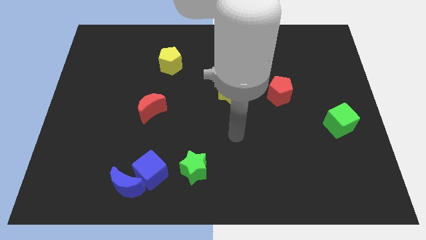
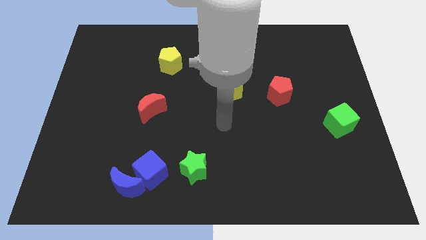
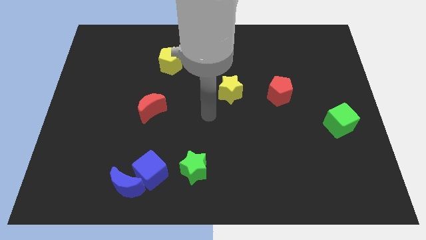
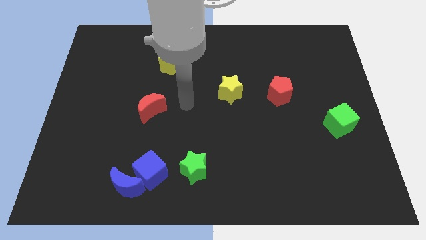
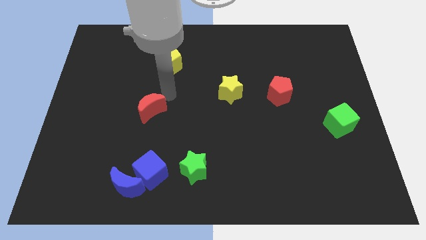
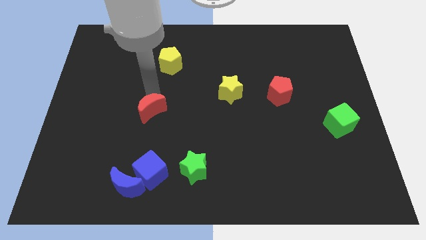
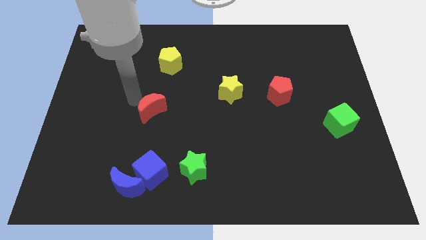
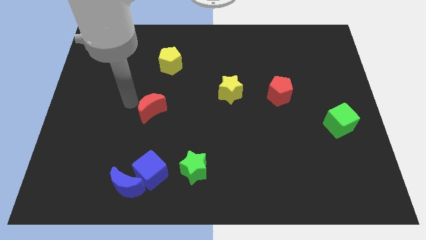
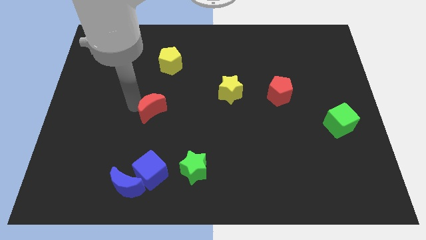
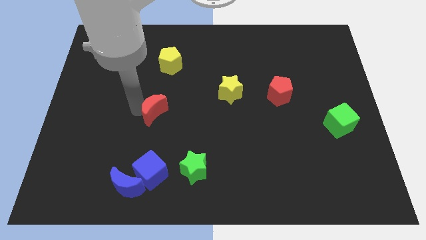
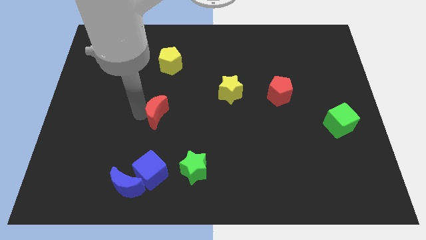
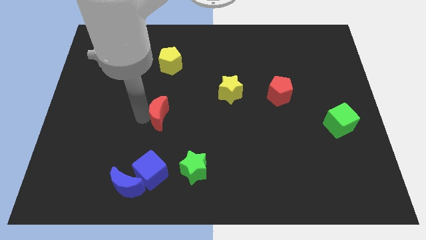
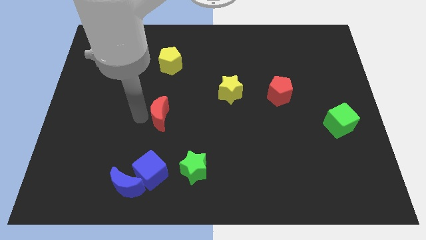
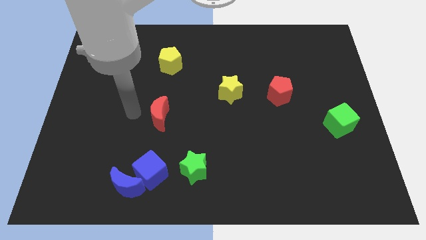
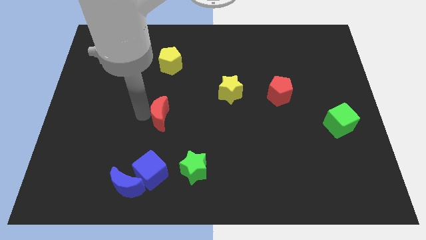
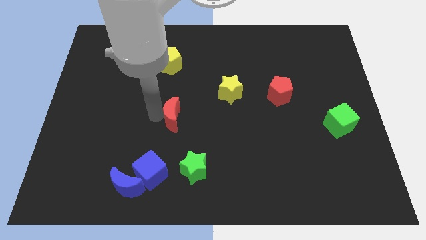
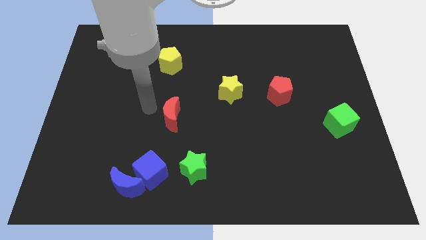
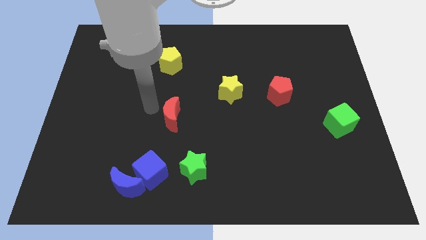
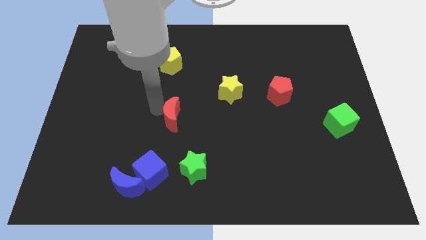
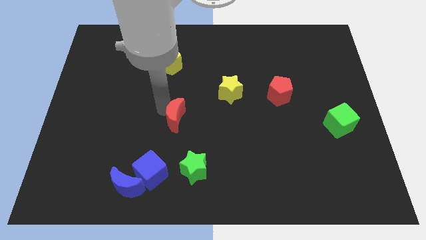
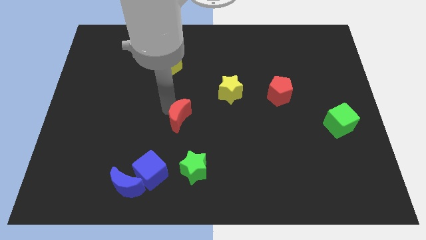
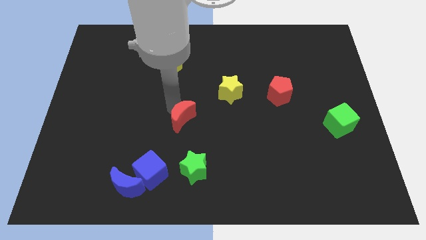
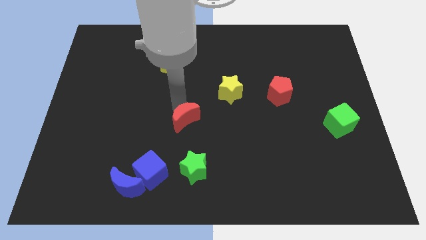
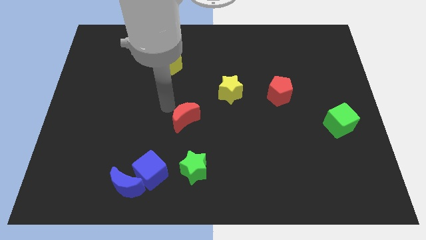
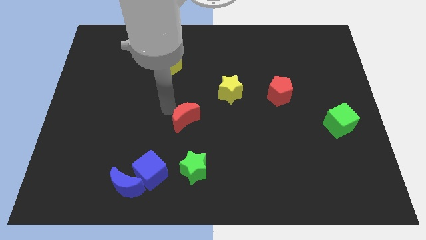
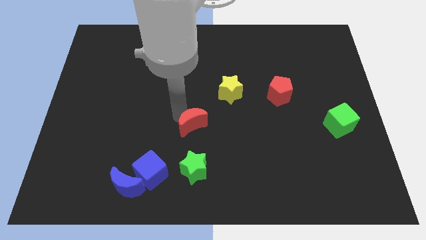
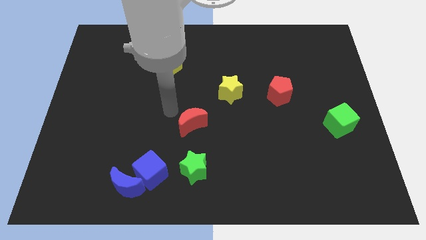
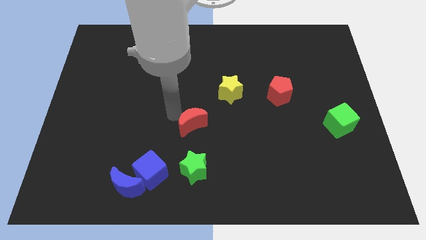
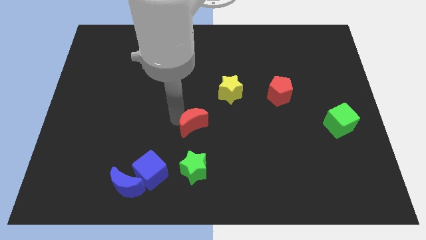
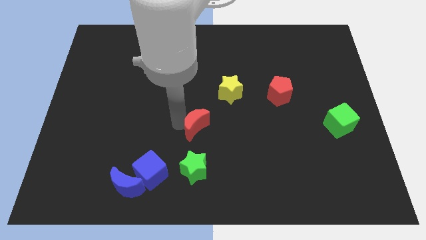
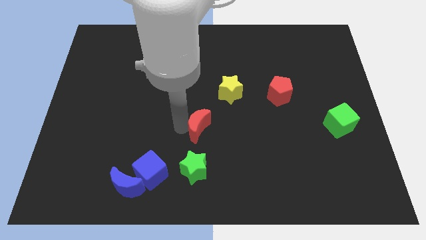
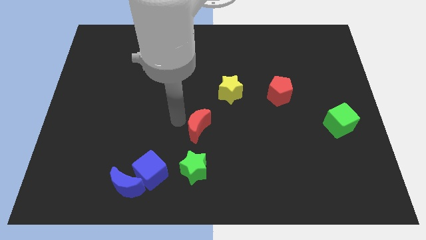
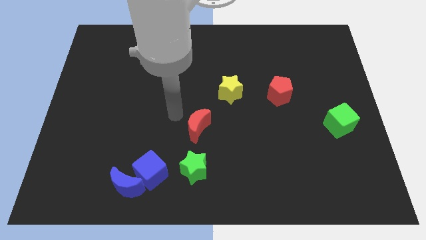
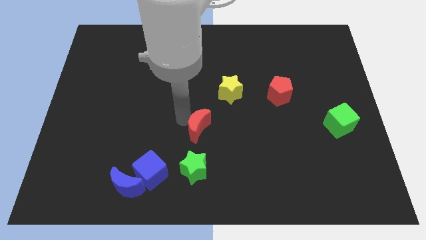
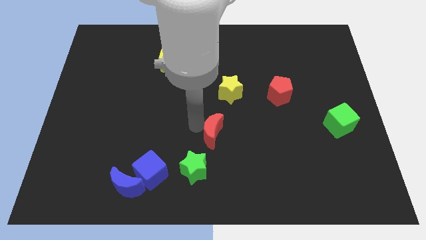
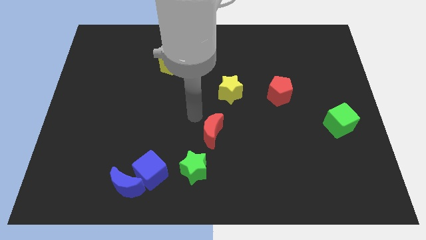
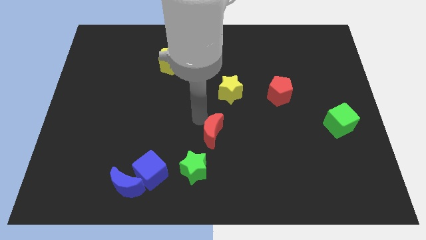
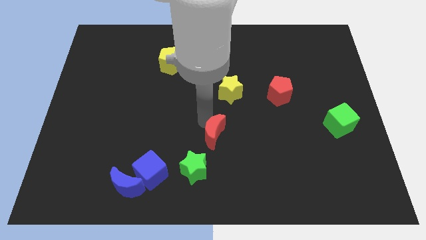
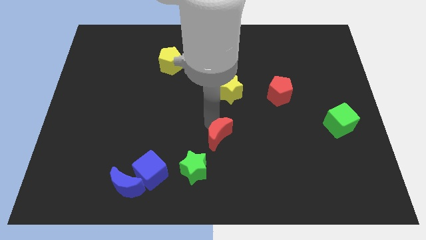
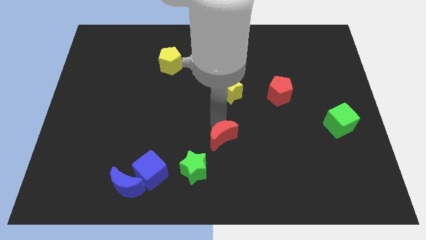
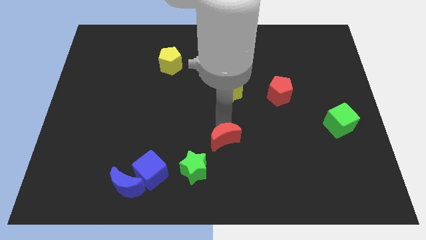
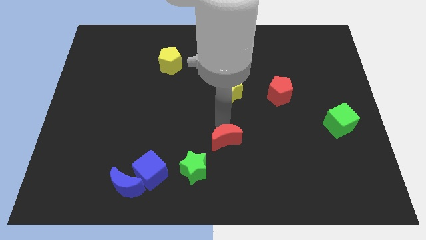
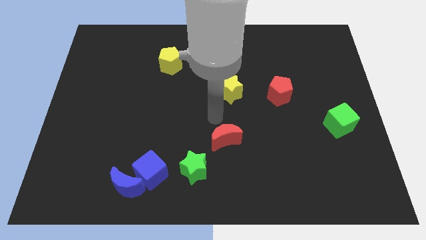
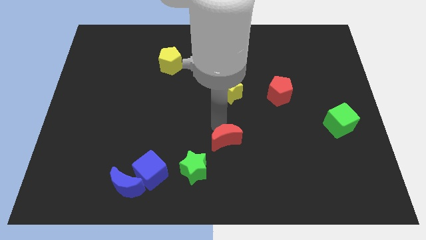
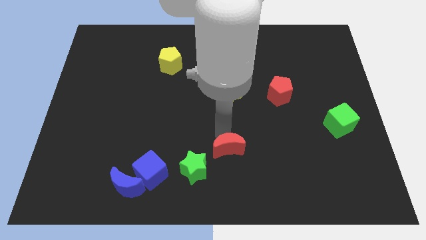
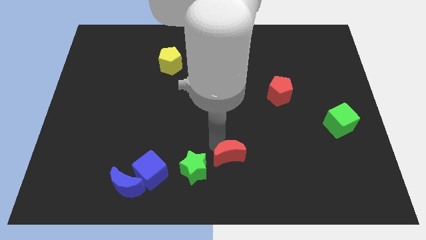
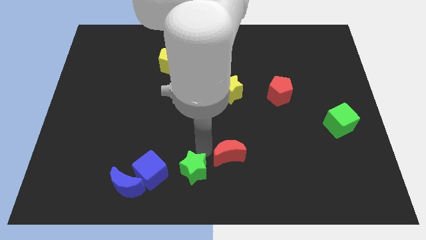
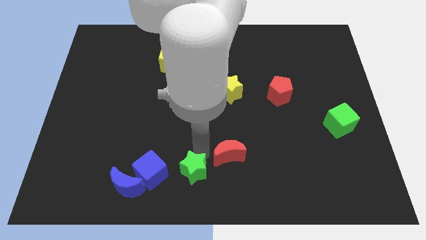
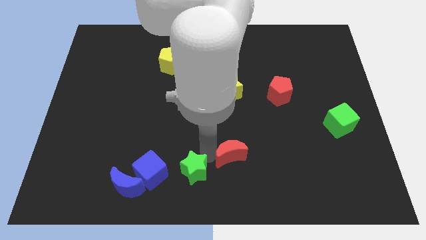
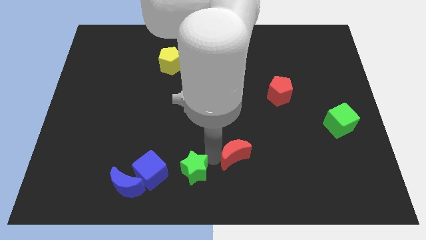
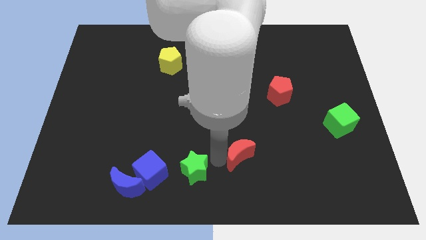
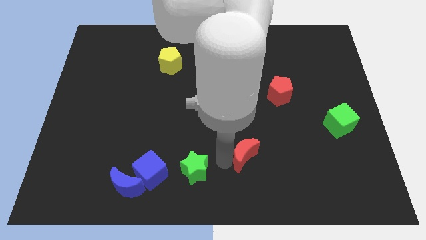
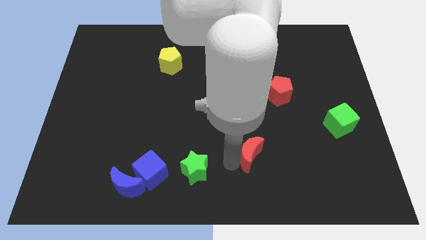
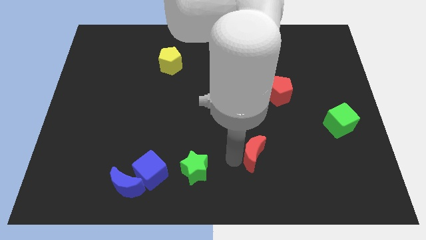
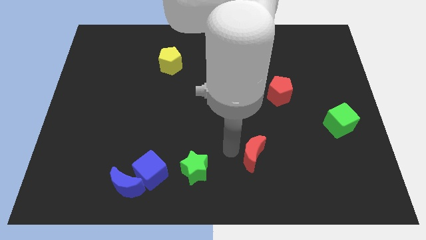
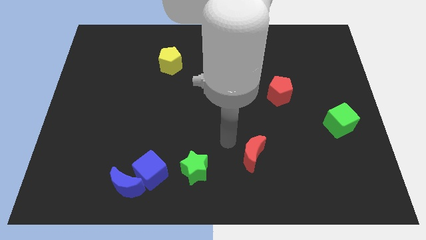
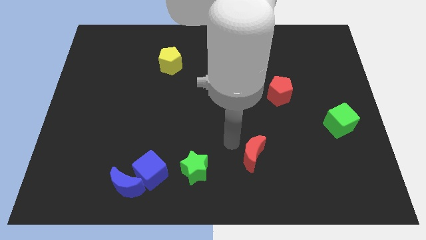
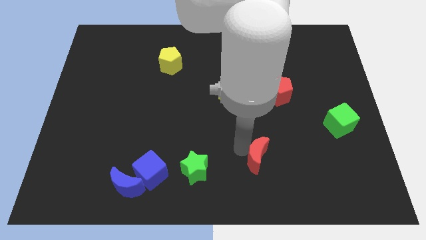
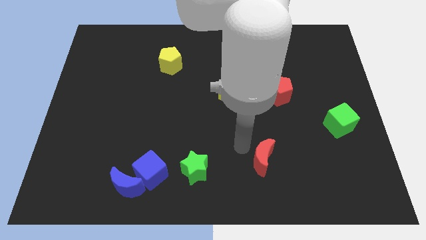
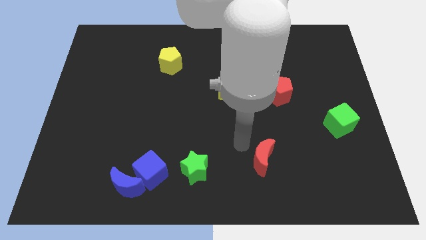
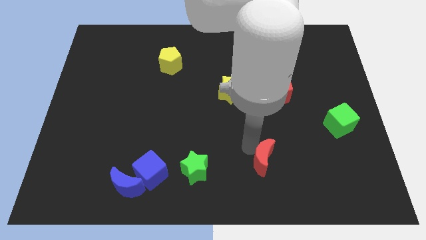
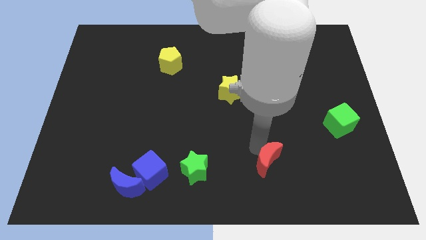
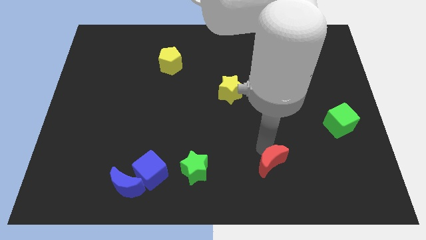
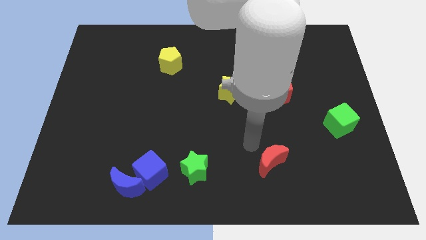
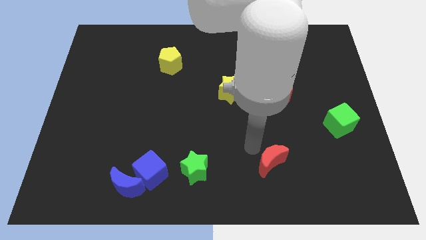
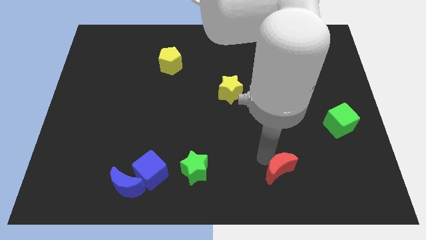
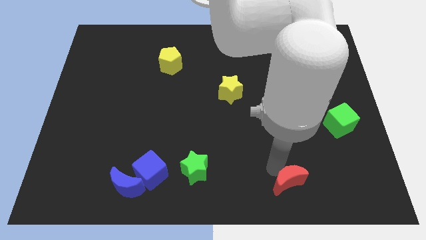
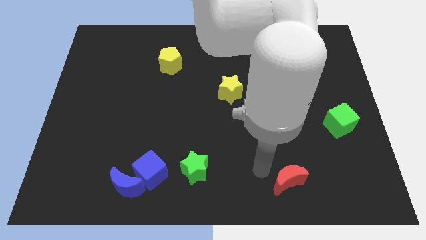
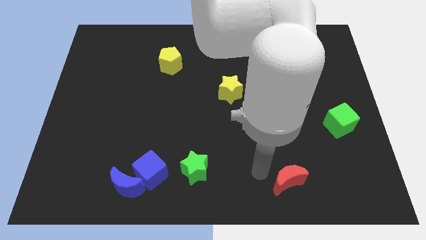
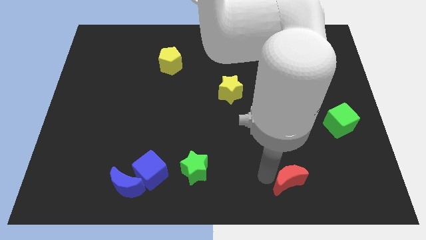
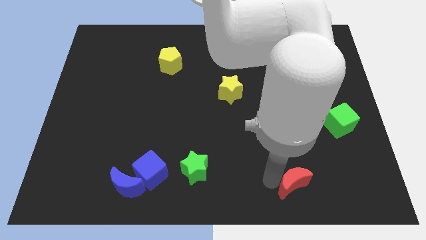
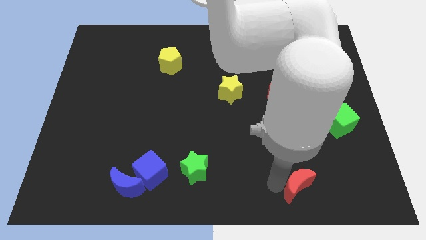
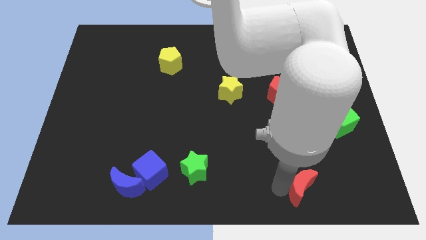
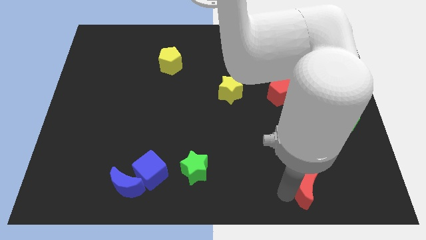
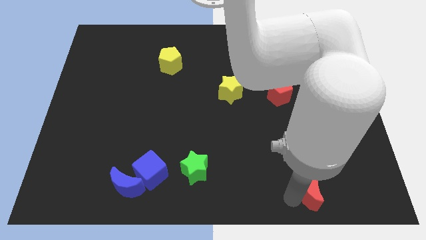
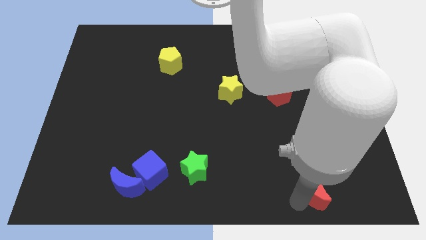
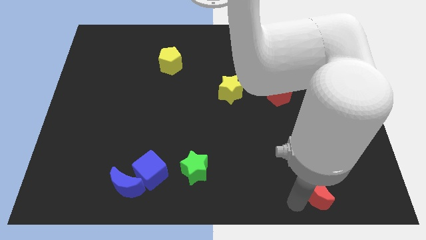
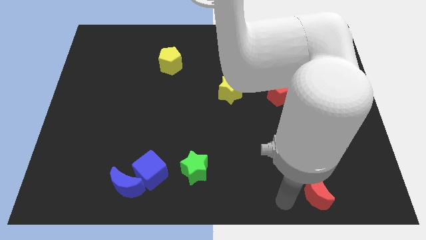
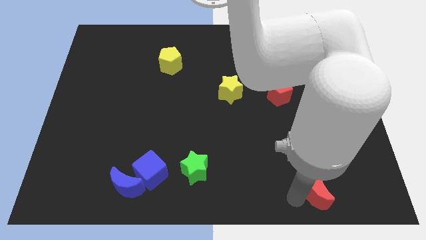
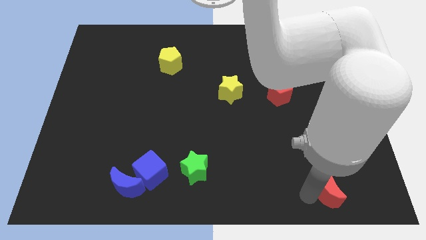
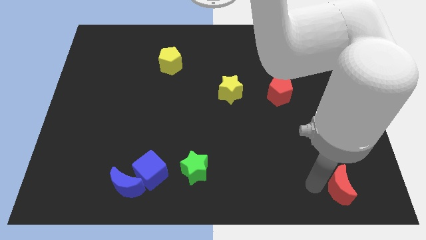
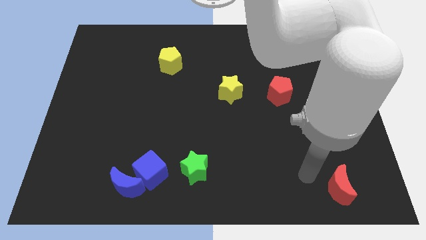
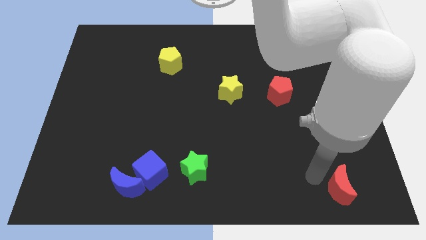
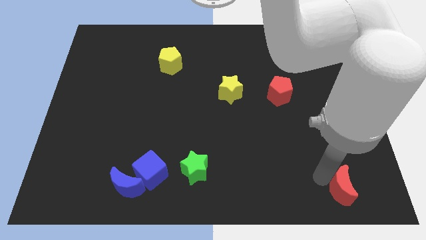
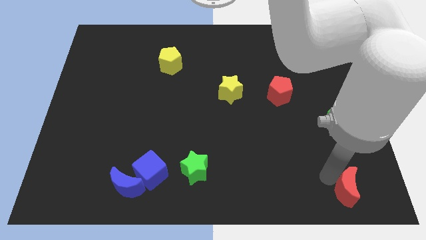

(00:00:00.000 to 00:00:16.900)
push the red moon to the bottom right corner
